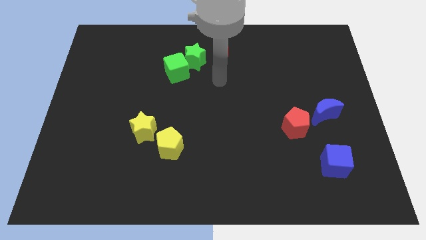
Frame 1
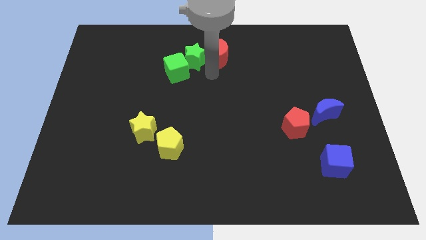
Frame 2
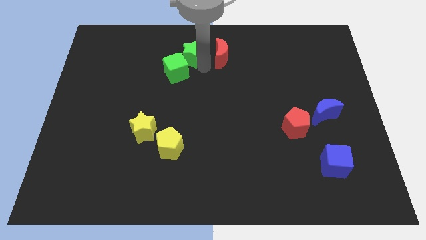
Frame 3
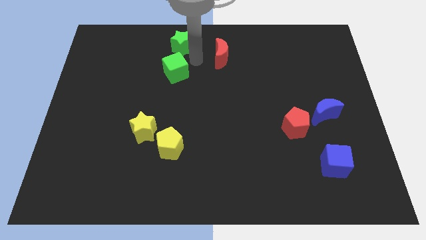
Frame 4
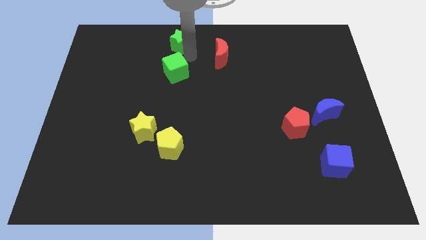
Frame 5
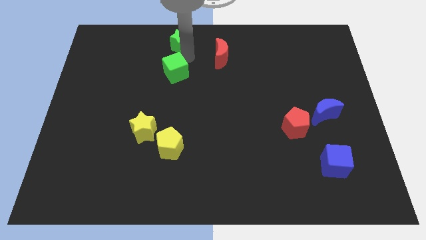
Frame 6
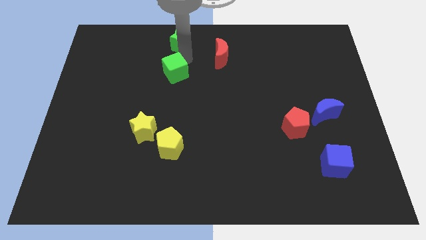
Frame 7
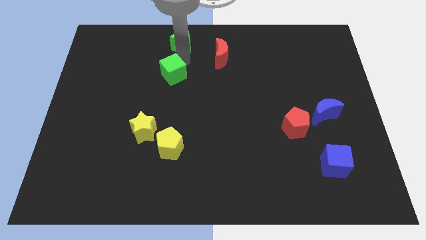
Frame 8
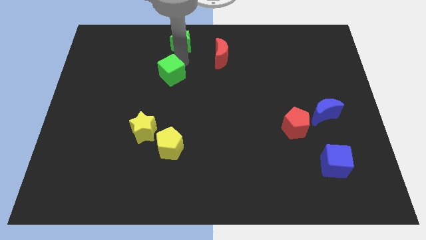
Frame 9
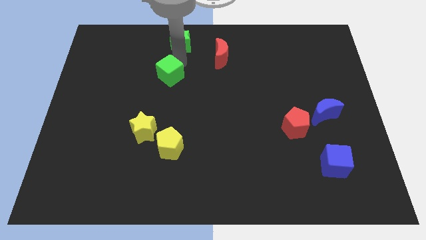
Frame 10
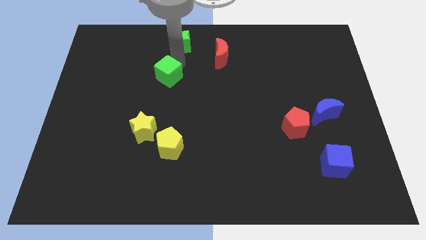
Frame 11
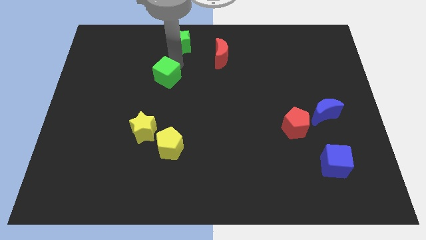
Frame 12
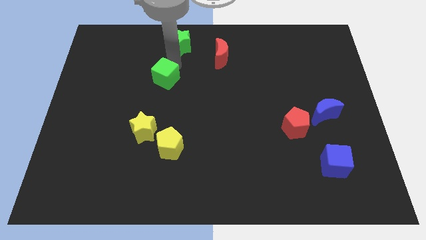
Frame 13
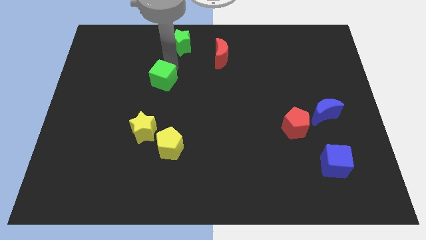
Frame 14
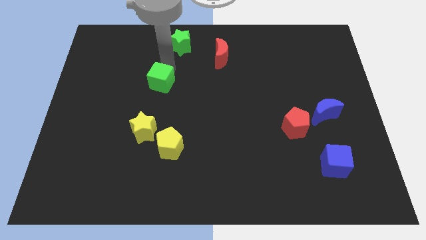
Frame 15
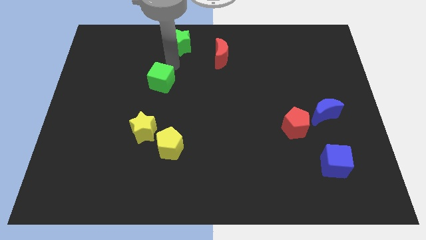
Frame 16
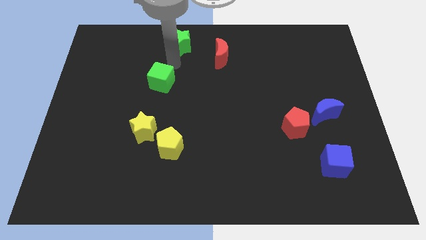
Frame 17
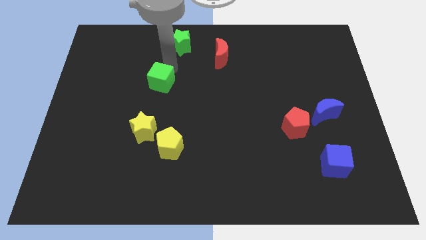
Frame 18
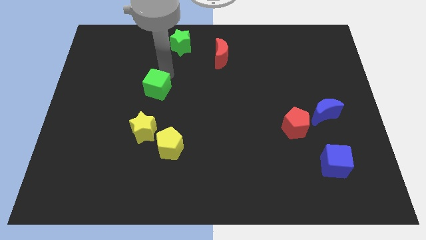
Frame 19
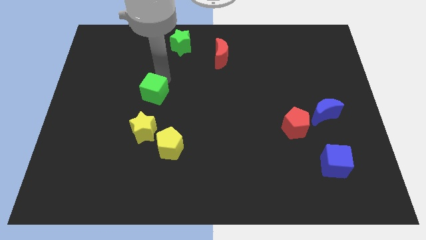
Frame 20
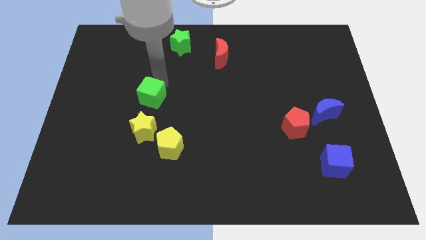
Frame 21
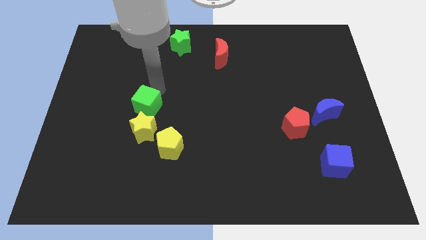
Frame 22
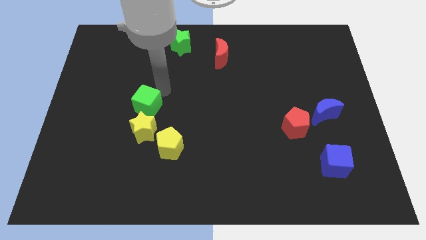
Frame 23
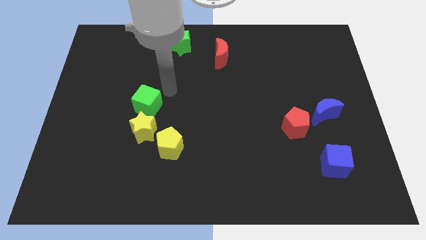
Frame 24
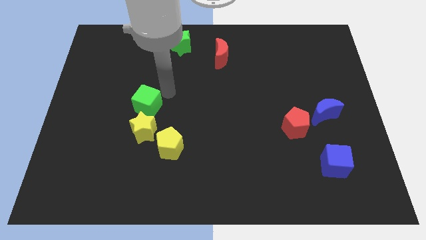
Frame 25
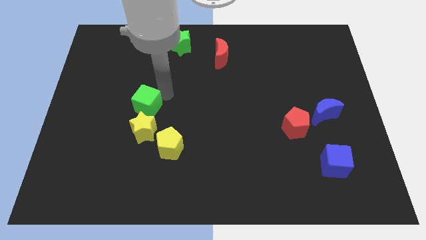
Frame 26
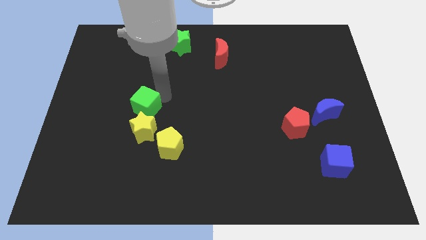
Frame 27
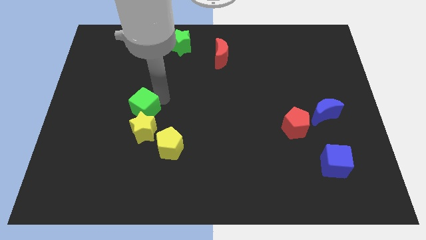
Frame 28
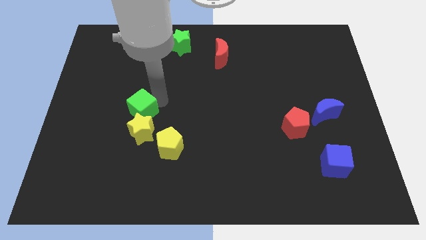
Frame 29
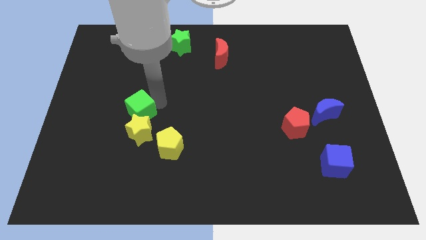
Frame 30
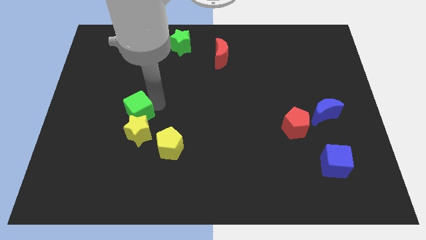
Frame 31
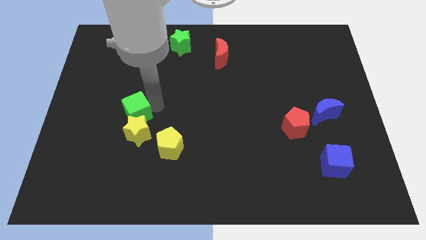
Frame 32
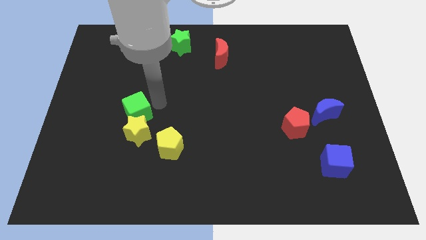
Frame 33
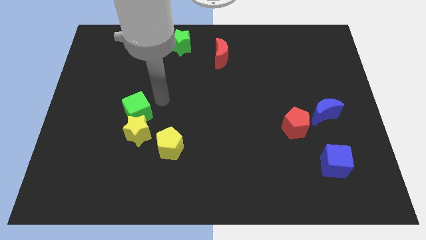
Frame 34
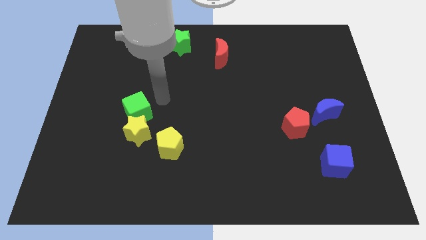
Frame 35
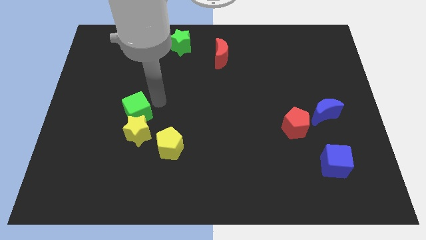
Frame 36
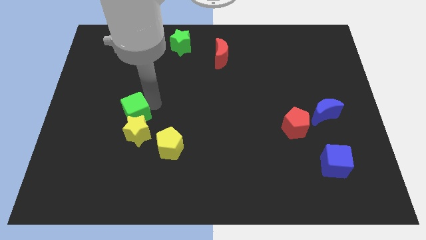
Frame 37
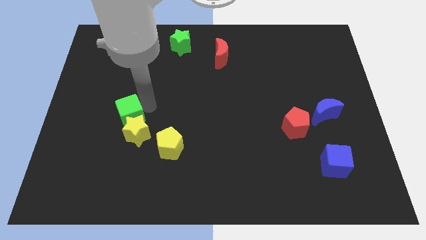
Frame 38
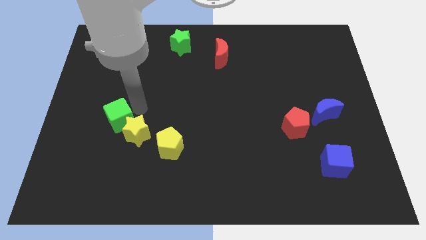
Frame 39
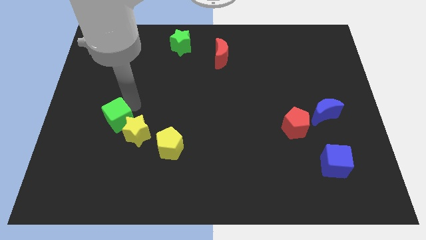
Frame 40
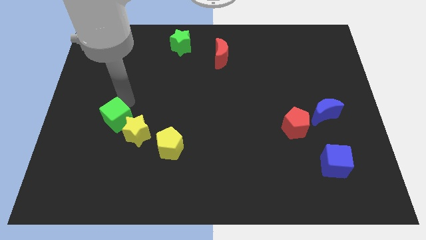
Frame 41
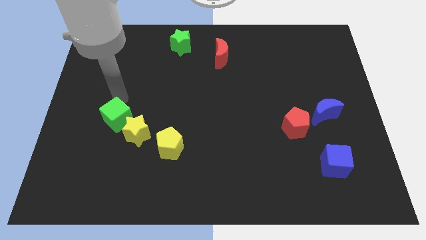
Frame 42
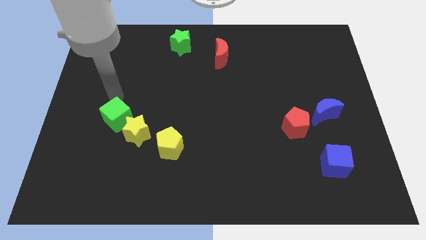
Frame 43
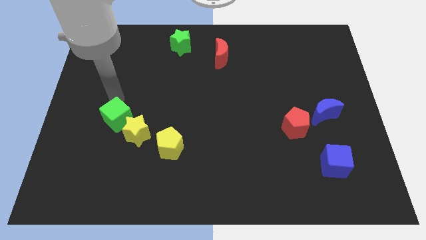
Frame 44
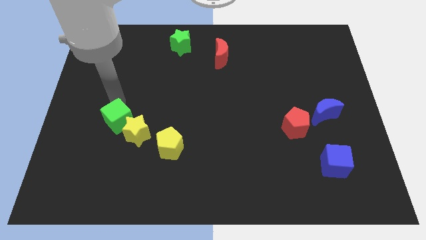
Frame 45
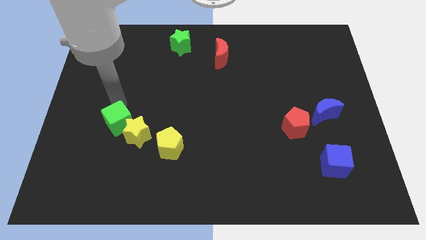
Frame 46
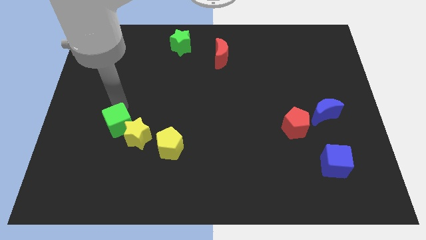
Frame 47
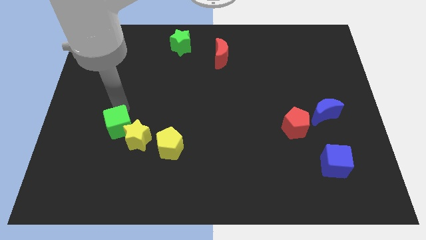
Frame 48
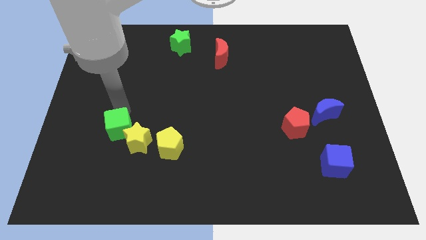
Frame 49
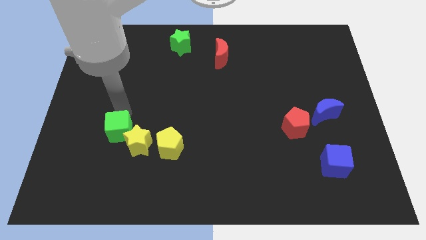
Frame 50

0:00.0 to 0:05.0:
push the green cube to the left side of the yellow pentagon

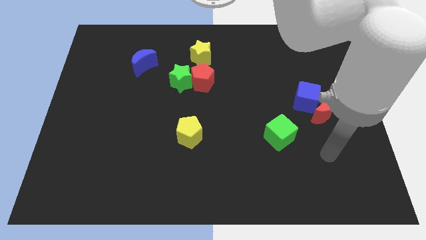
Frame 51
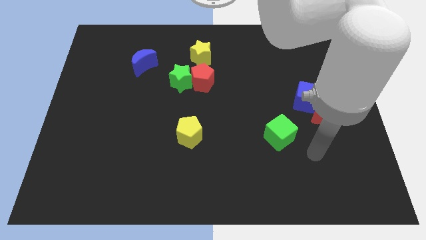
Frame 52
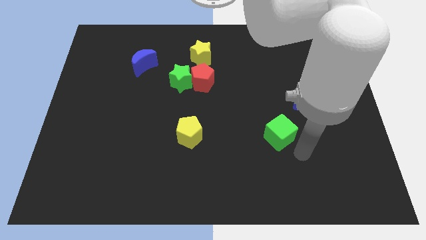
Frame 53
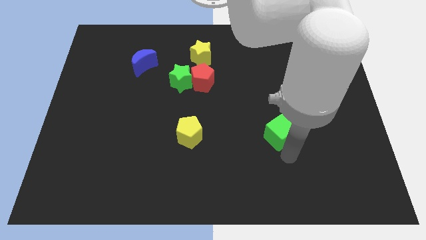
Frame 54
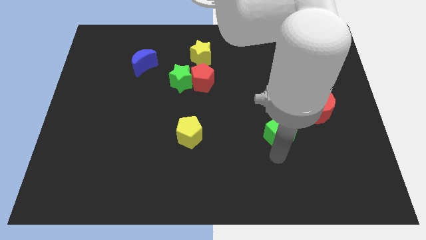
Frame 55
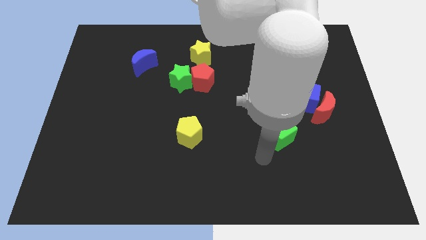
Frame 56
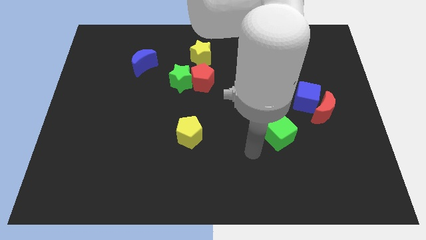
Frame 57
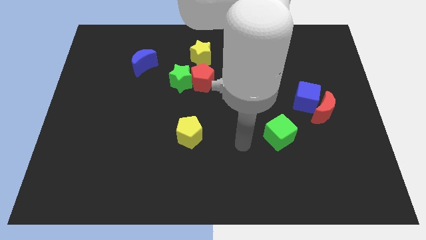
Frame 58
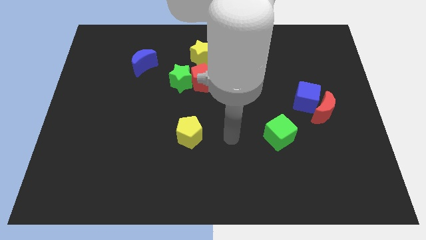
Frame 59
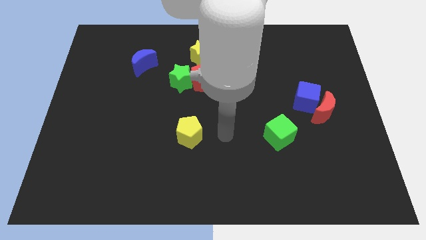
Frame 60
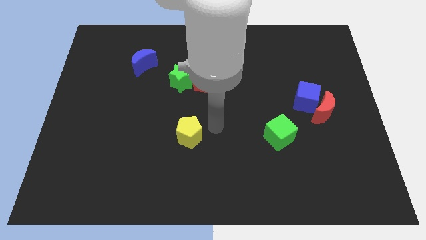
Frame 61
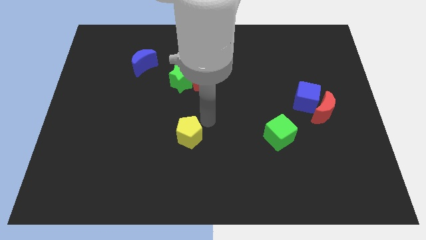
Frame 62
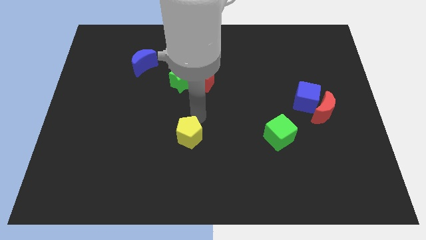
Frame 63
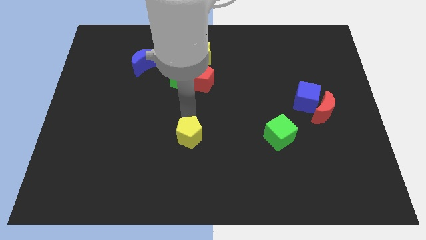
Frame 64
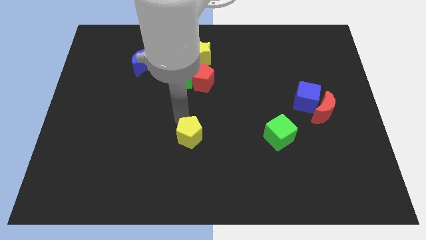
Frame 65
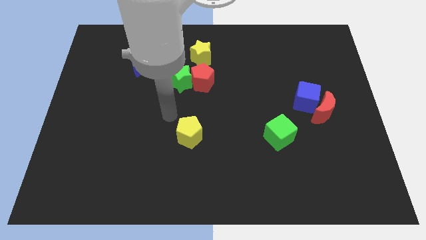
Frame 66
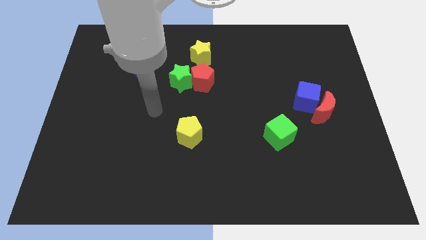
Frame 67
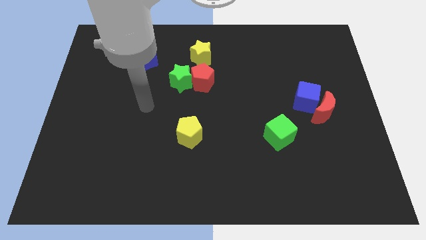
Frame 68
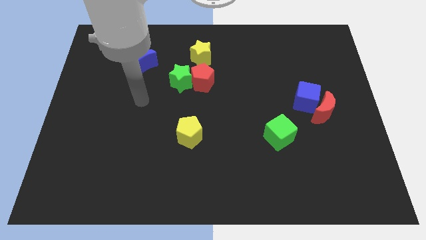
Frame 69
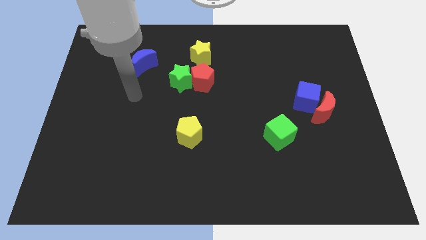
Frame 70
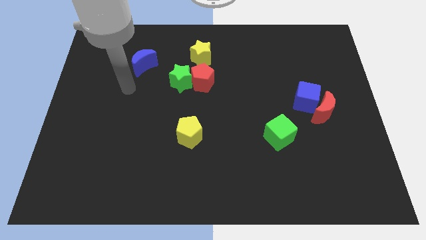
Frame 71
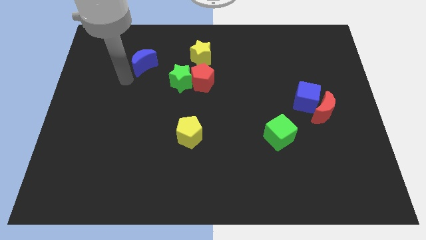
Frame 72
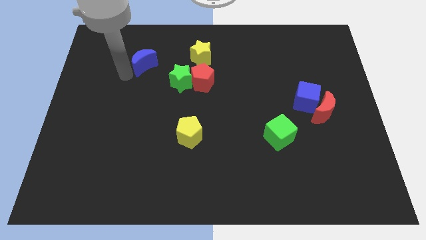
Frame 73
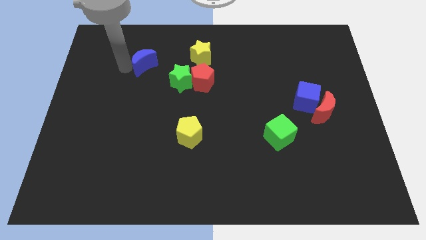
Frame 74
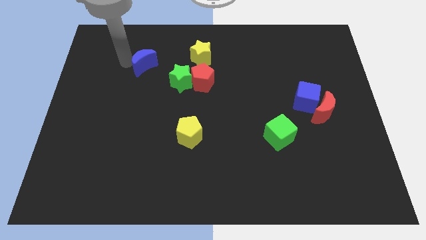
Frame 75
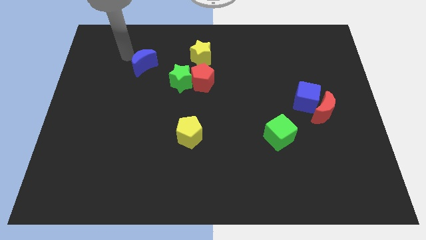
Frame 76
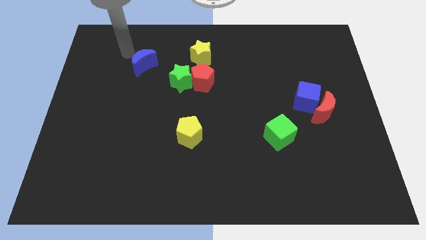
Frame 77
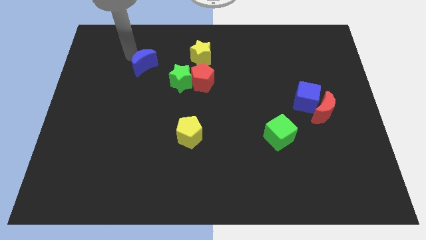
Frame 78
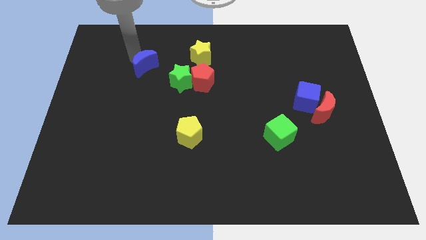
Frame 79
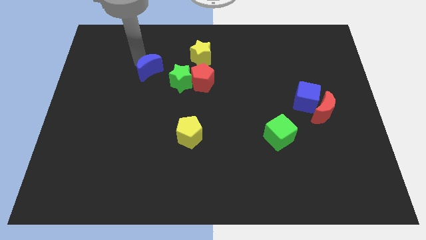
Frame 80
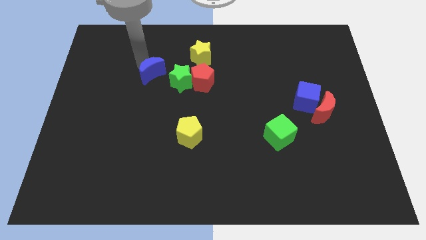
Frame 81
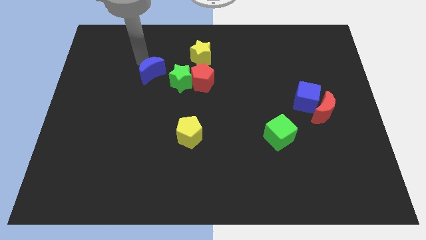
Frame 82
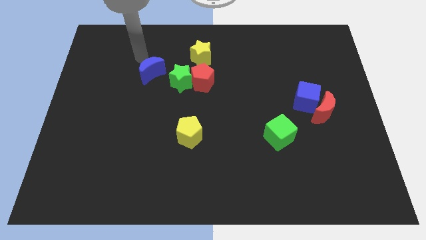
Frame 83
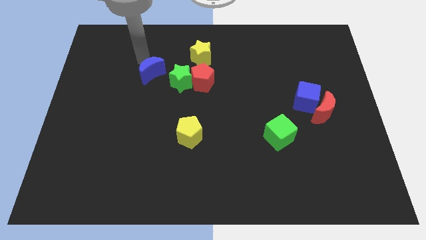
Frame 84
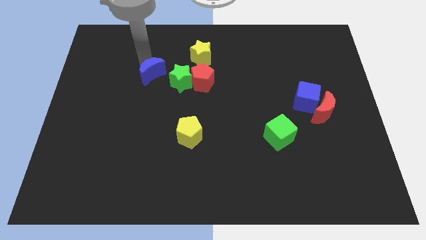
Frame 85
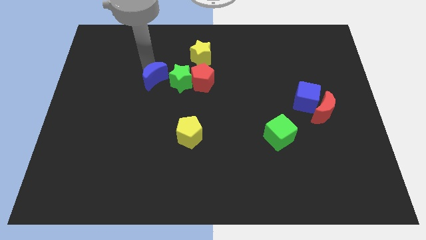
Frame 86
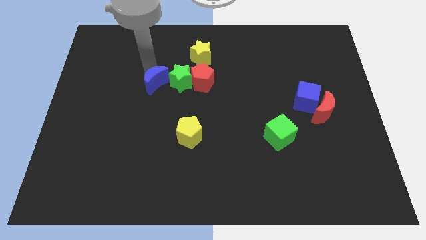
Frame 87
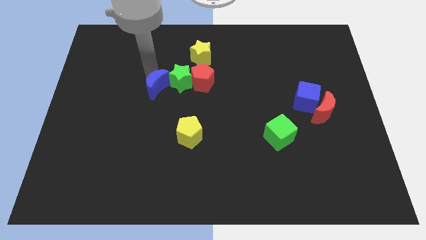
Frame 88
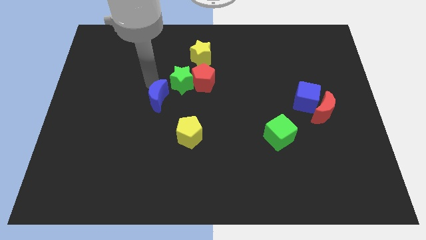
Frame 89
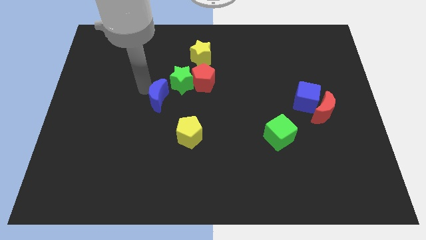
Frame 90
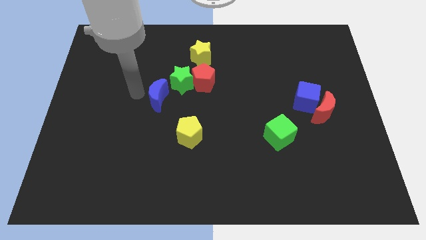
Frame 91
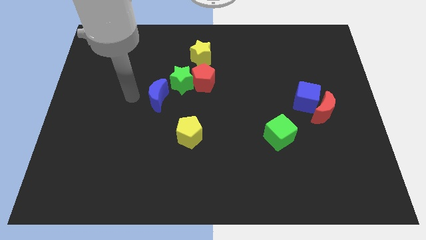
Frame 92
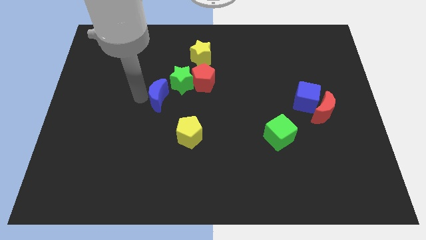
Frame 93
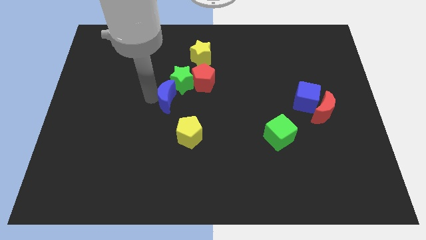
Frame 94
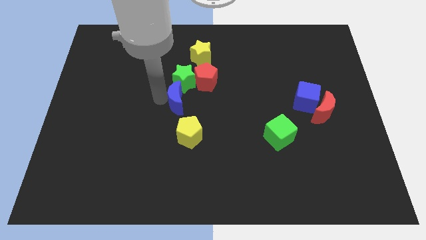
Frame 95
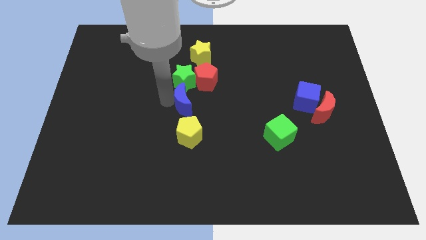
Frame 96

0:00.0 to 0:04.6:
slide the blue moon to the bottom right of the green star
